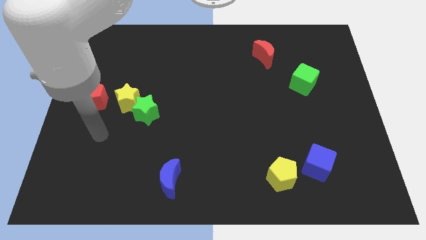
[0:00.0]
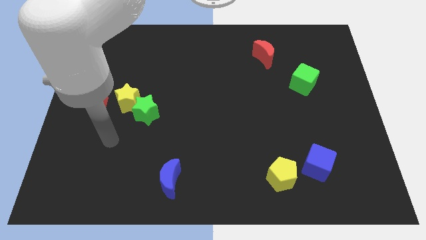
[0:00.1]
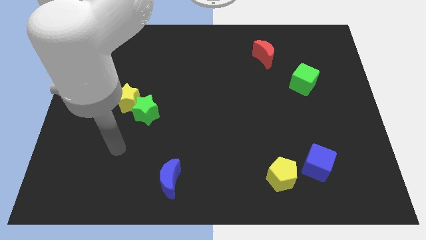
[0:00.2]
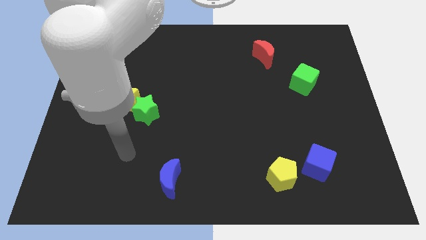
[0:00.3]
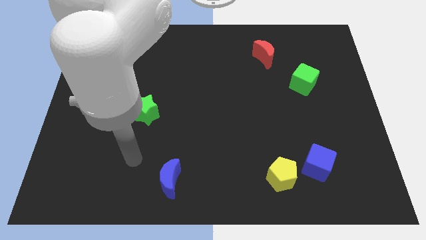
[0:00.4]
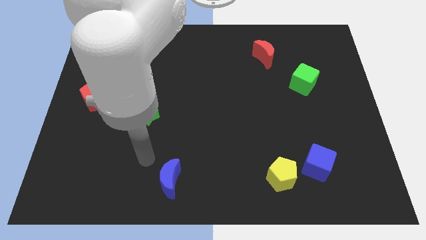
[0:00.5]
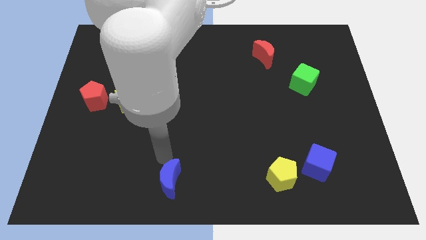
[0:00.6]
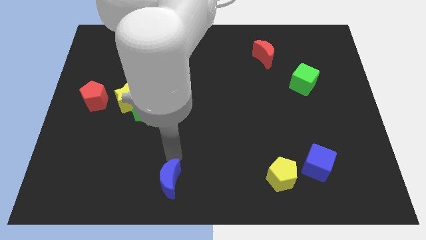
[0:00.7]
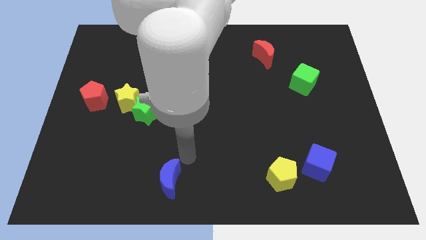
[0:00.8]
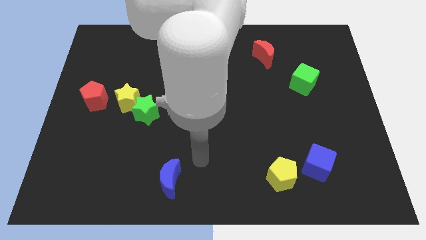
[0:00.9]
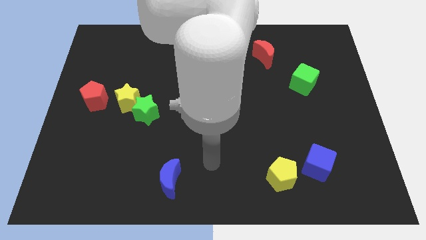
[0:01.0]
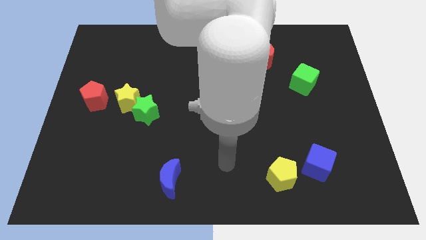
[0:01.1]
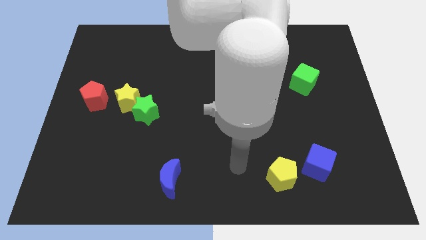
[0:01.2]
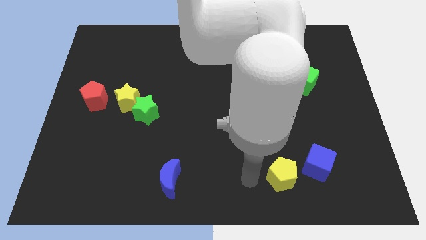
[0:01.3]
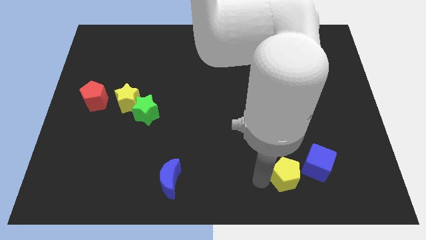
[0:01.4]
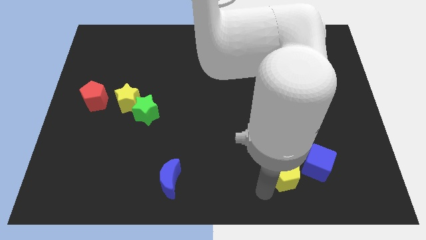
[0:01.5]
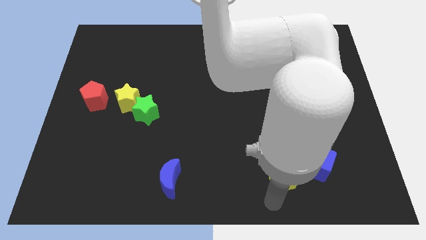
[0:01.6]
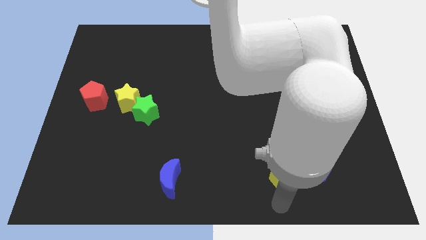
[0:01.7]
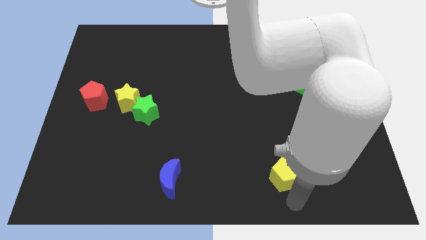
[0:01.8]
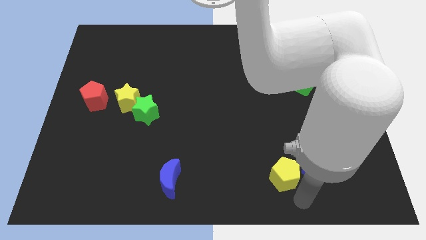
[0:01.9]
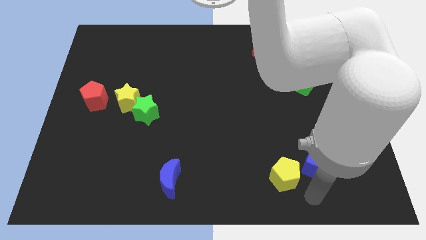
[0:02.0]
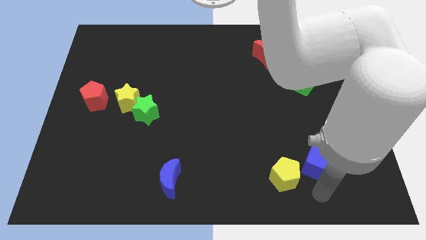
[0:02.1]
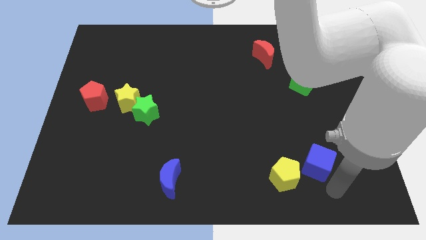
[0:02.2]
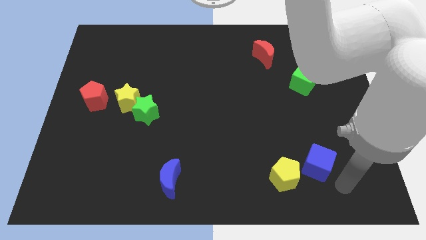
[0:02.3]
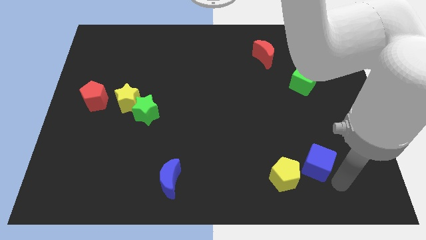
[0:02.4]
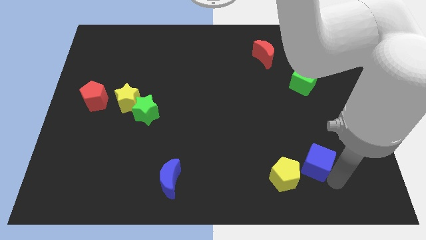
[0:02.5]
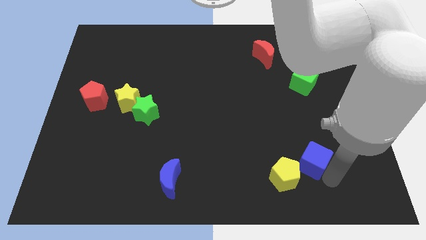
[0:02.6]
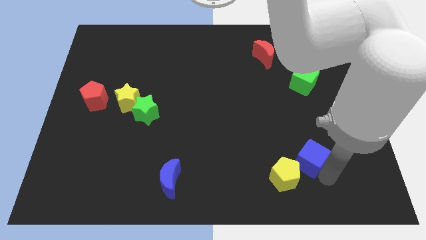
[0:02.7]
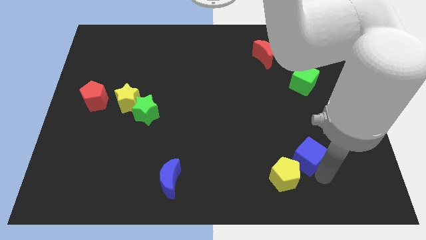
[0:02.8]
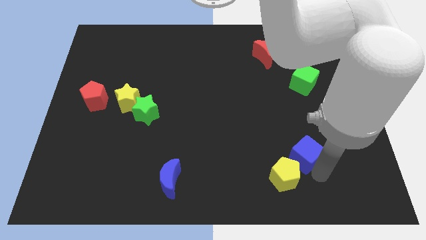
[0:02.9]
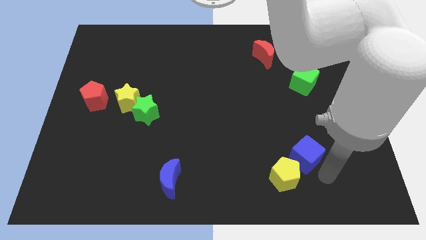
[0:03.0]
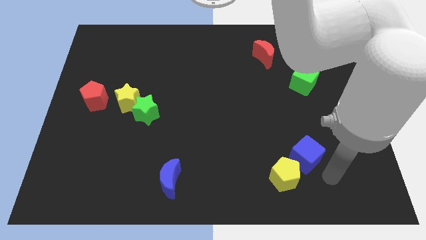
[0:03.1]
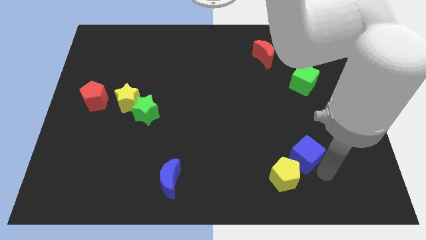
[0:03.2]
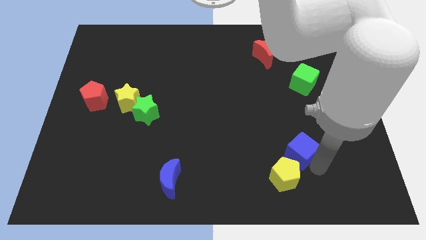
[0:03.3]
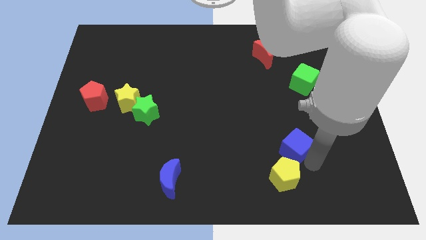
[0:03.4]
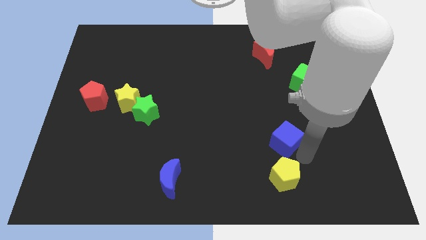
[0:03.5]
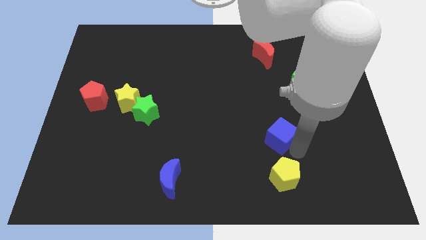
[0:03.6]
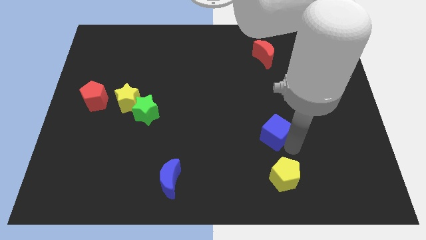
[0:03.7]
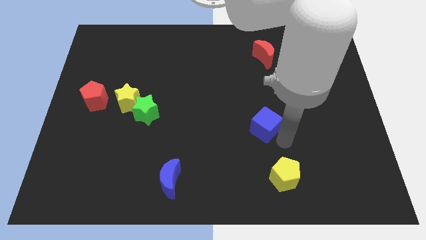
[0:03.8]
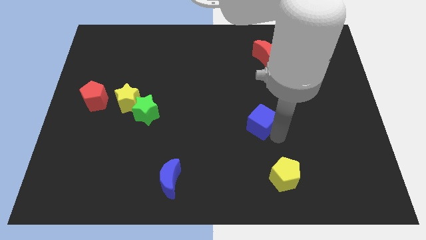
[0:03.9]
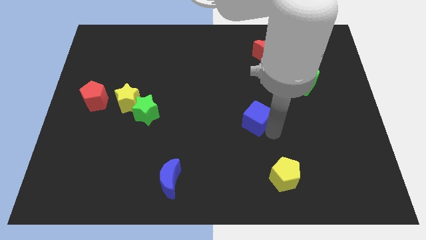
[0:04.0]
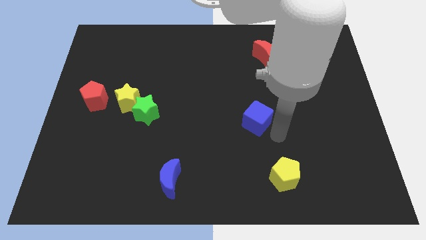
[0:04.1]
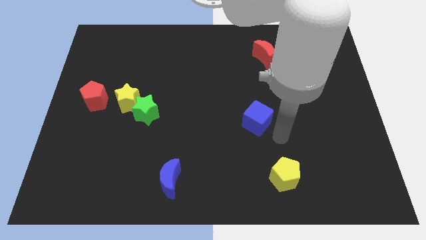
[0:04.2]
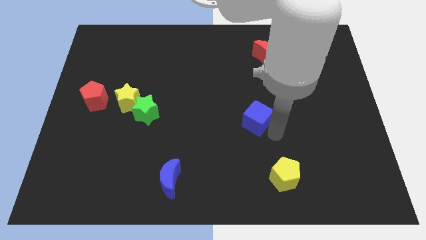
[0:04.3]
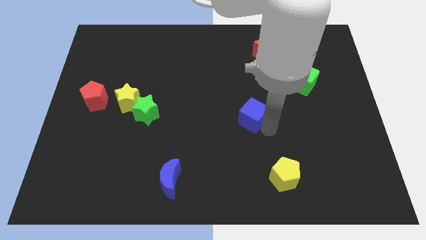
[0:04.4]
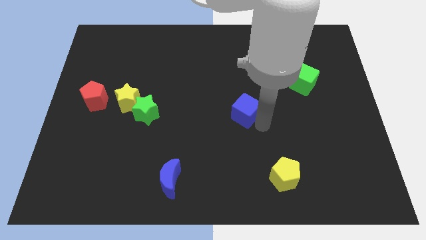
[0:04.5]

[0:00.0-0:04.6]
slide the blue cube up and left diagonally

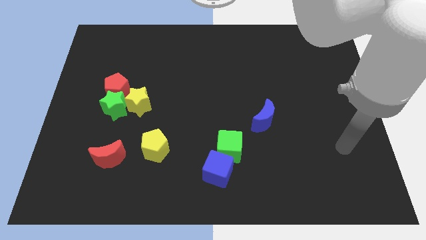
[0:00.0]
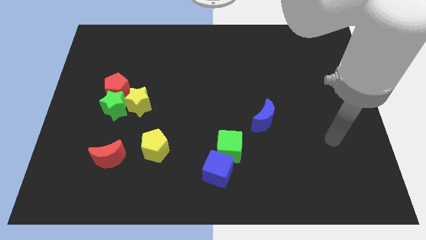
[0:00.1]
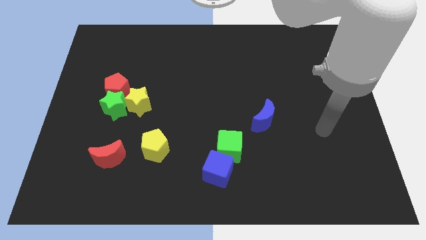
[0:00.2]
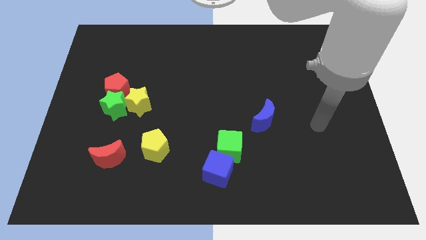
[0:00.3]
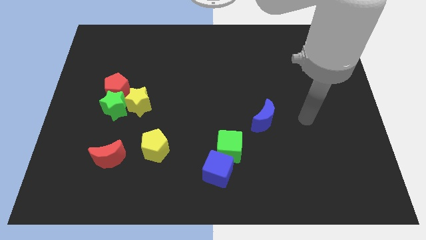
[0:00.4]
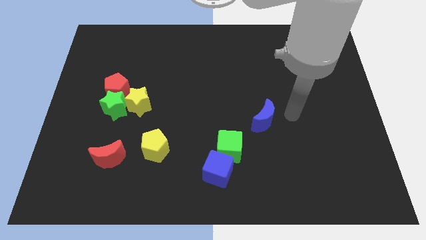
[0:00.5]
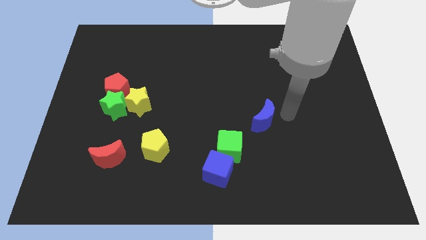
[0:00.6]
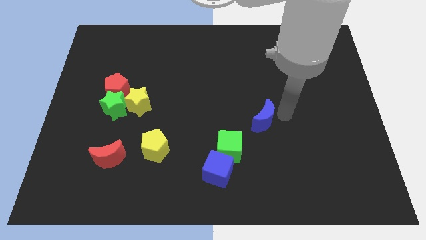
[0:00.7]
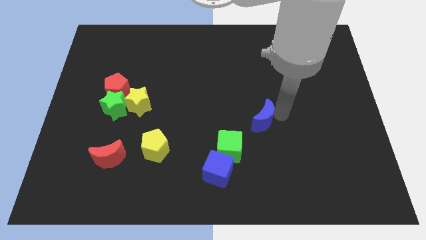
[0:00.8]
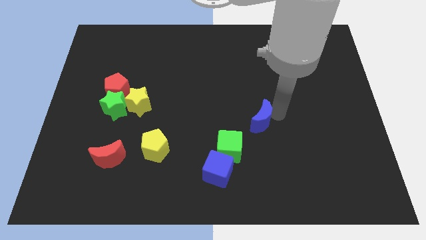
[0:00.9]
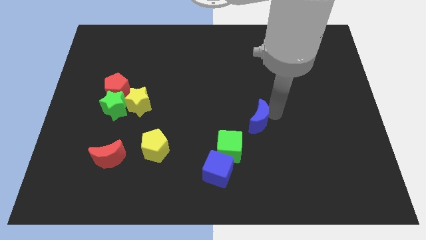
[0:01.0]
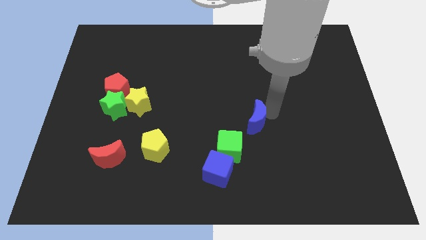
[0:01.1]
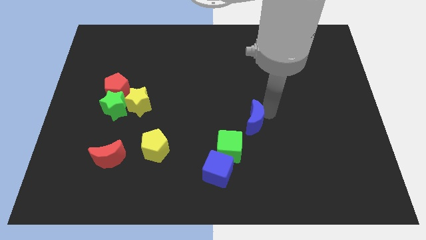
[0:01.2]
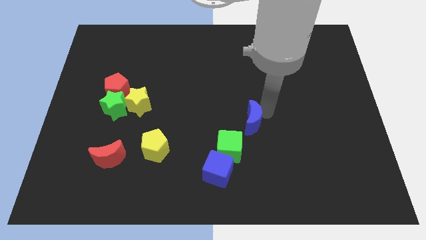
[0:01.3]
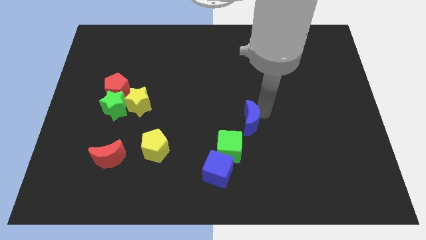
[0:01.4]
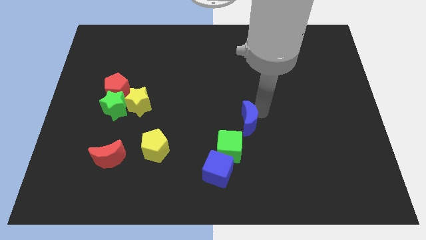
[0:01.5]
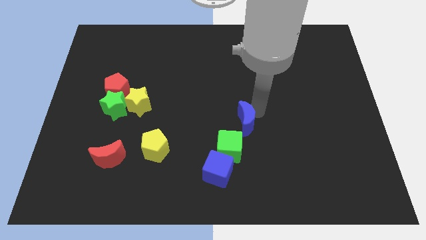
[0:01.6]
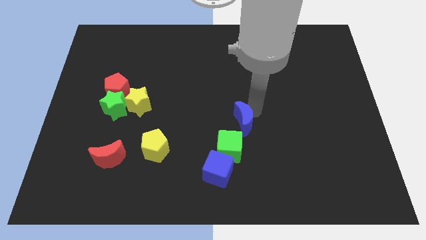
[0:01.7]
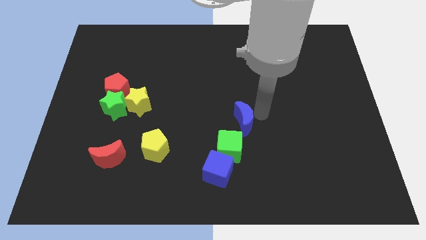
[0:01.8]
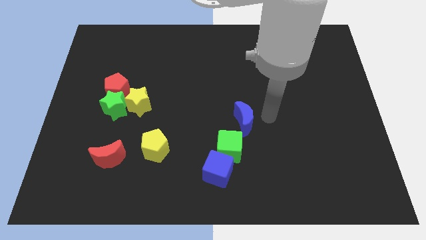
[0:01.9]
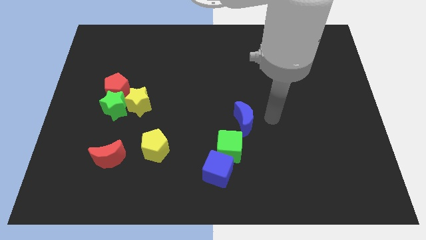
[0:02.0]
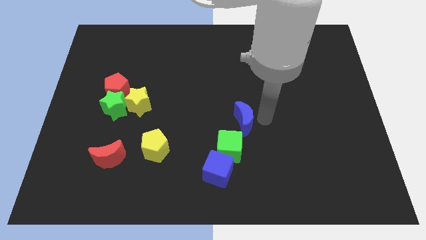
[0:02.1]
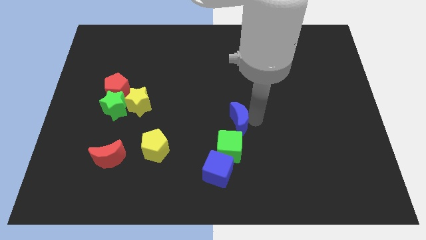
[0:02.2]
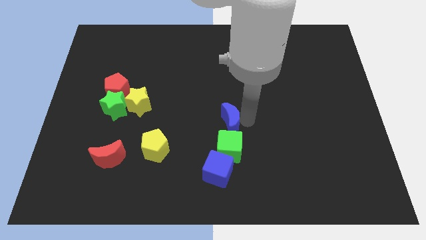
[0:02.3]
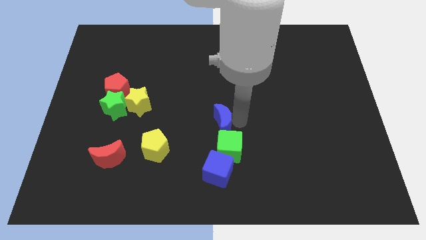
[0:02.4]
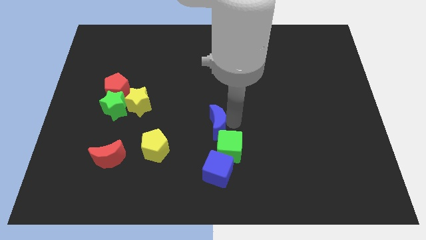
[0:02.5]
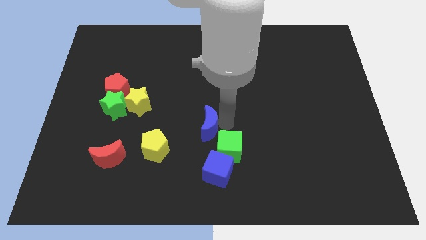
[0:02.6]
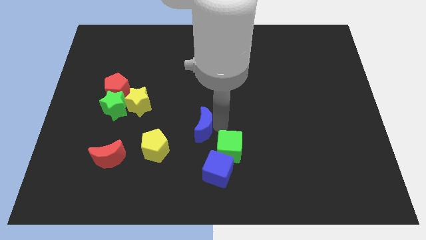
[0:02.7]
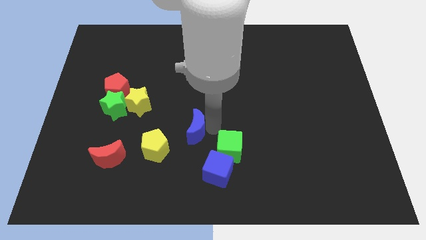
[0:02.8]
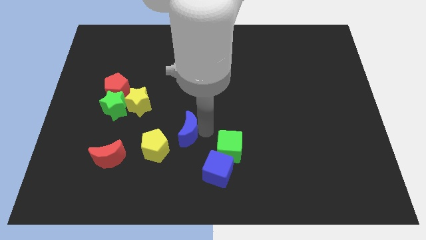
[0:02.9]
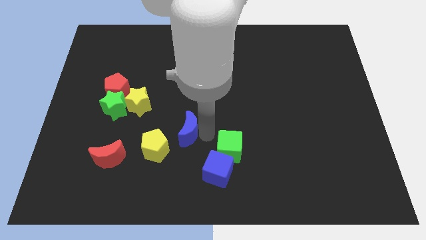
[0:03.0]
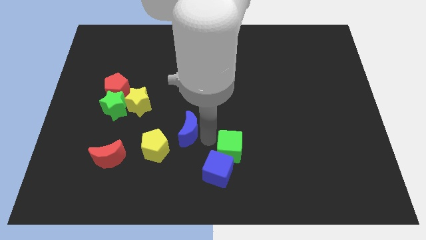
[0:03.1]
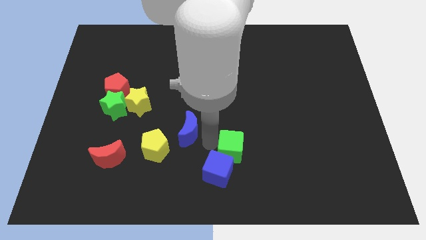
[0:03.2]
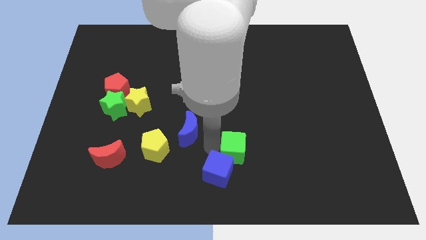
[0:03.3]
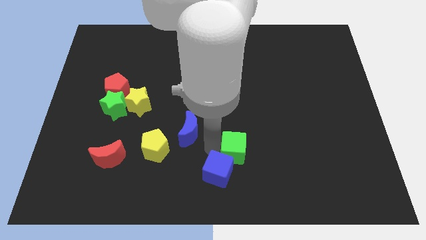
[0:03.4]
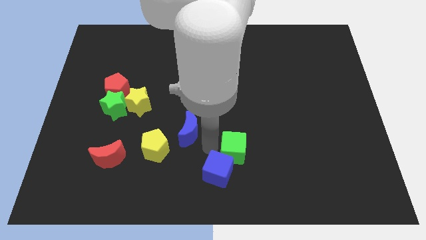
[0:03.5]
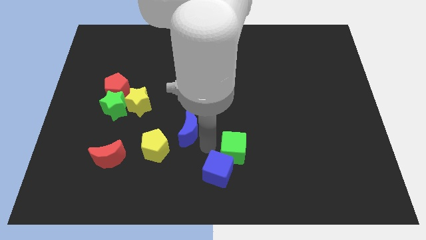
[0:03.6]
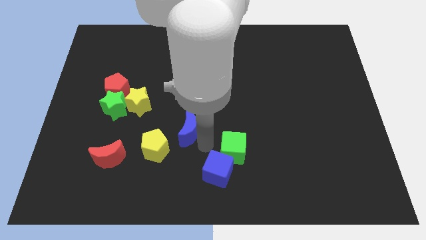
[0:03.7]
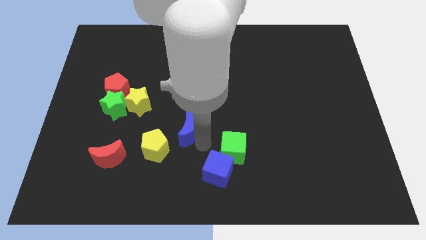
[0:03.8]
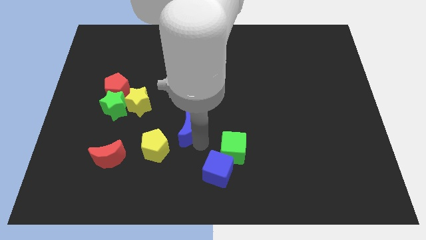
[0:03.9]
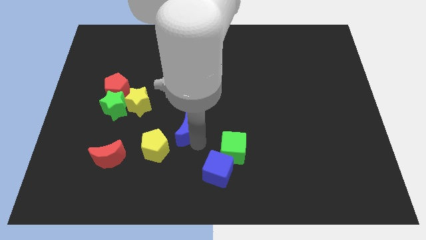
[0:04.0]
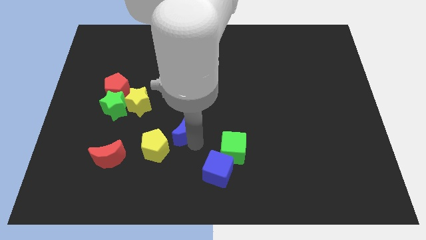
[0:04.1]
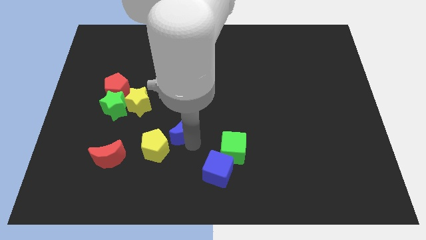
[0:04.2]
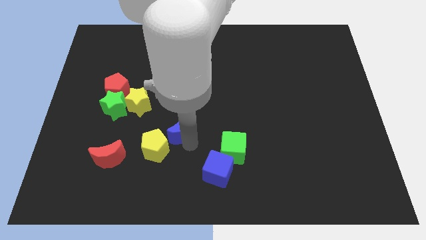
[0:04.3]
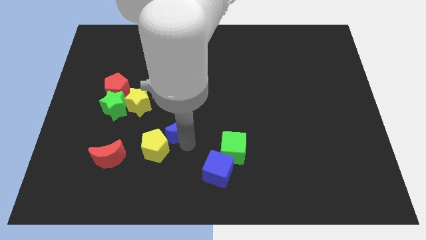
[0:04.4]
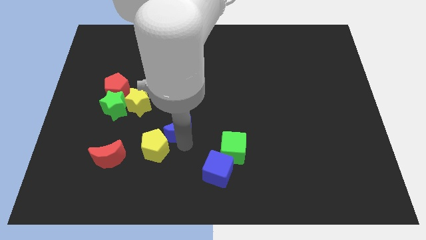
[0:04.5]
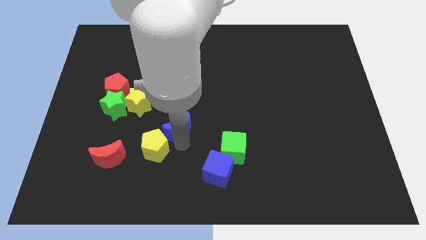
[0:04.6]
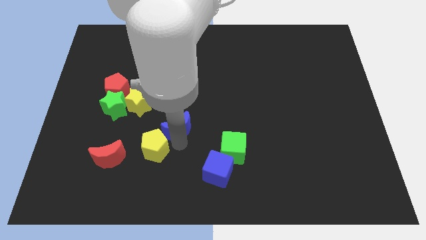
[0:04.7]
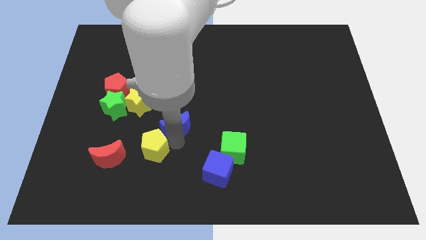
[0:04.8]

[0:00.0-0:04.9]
slide the blue moon to the left
